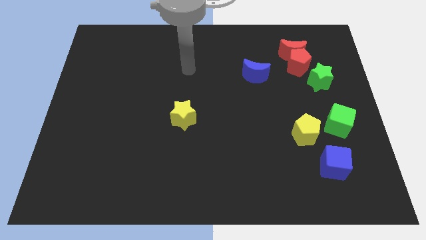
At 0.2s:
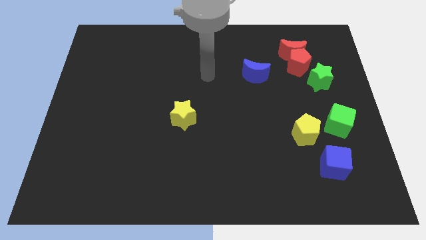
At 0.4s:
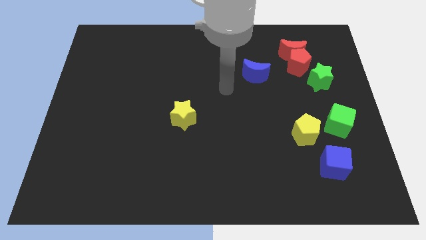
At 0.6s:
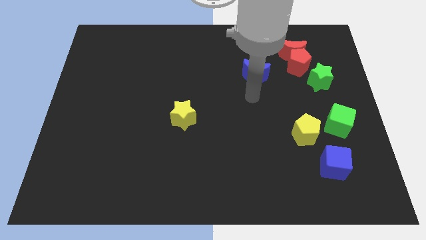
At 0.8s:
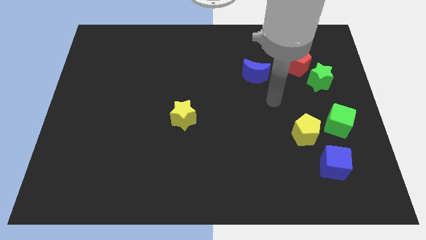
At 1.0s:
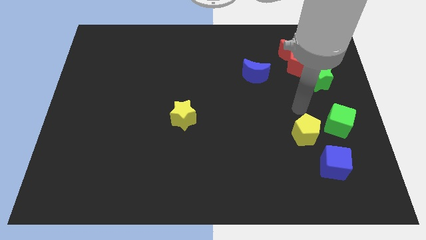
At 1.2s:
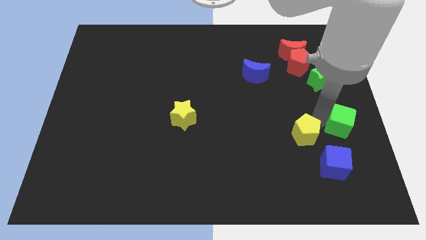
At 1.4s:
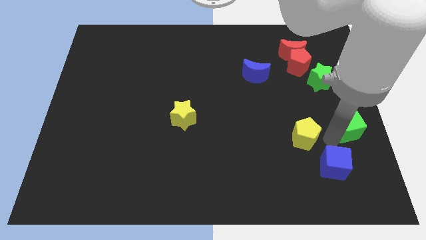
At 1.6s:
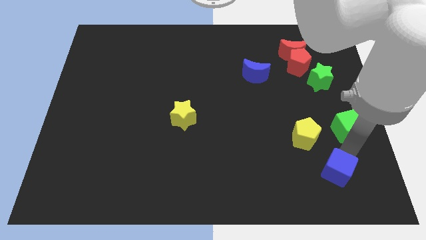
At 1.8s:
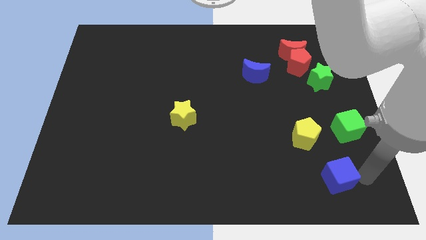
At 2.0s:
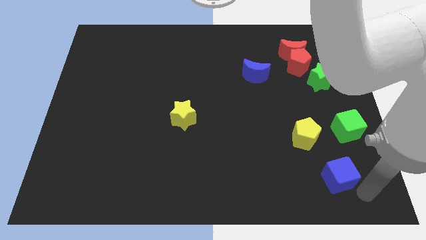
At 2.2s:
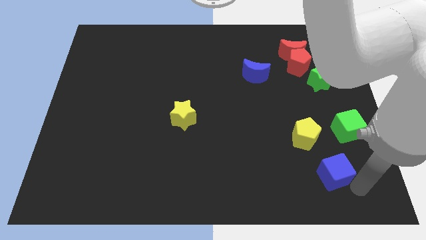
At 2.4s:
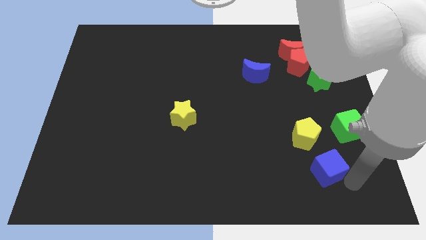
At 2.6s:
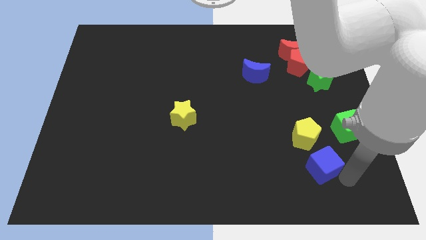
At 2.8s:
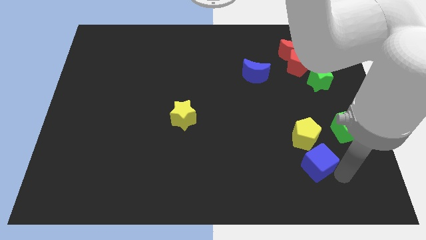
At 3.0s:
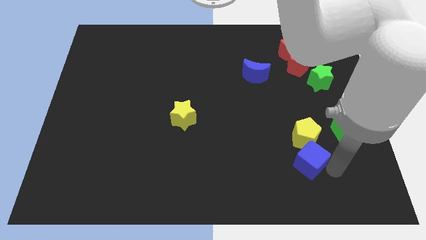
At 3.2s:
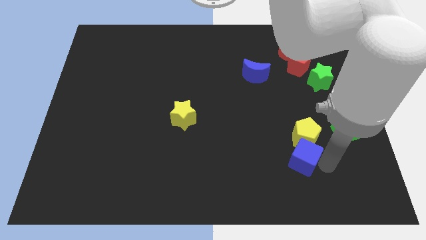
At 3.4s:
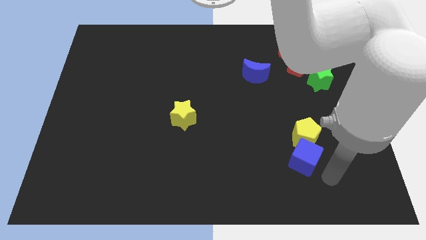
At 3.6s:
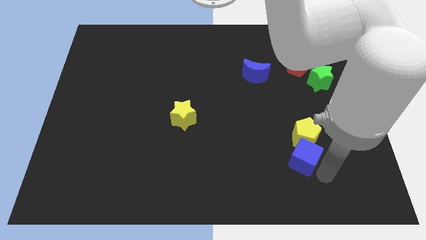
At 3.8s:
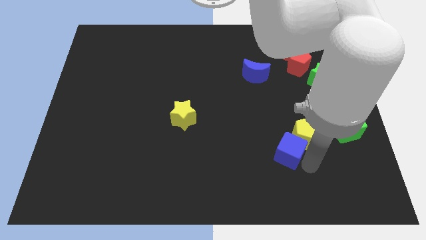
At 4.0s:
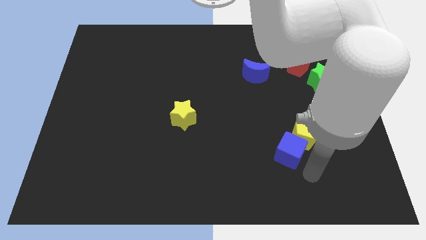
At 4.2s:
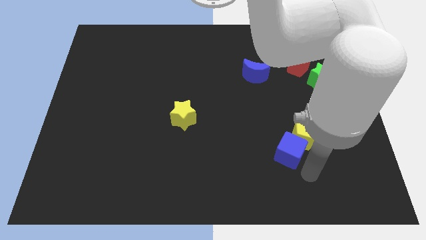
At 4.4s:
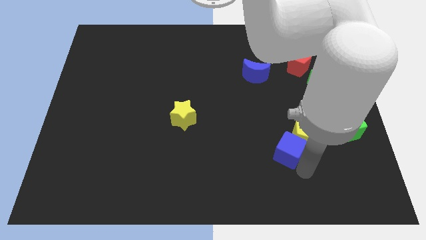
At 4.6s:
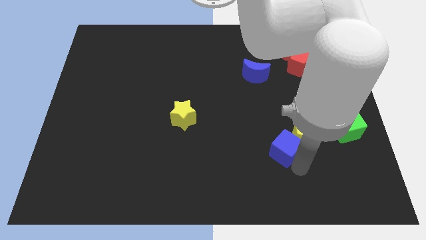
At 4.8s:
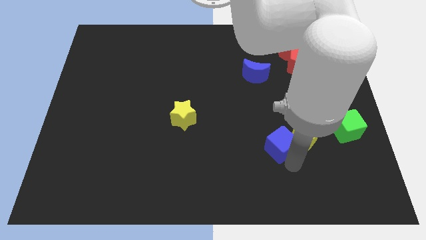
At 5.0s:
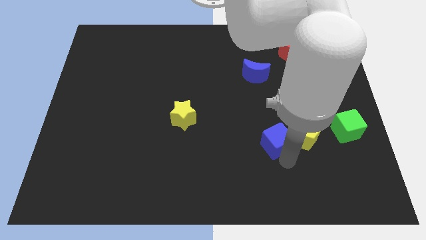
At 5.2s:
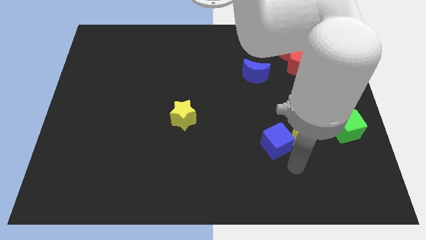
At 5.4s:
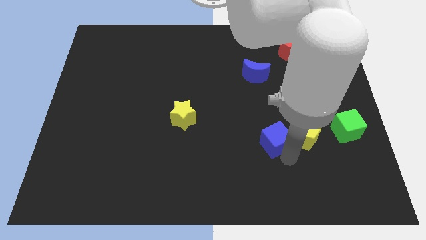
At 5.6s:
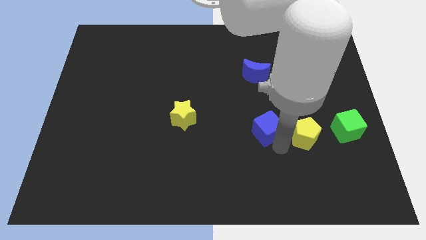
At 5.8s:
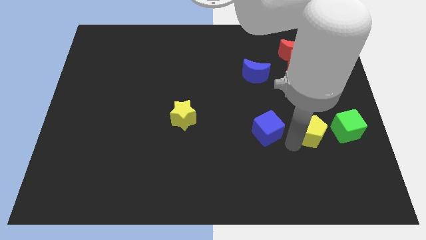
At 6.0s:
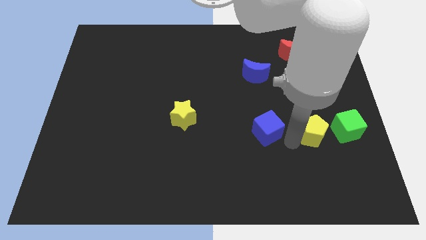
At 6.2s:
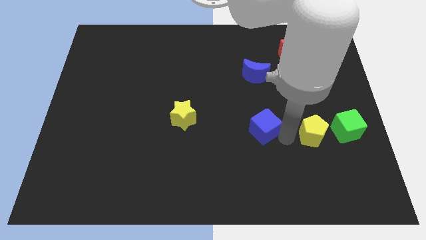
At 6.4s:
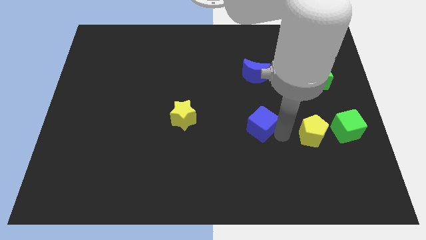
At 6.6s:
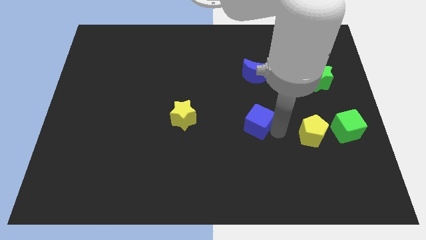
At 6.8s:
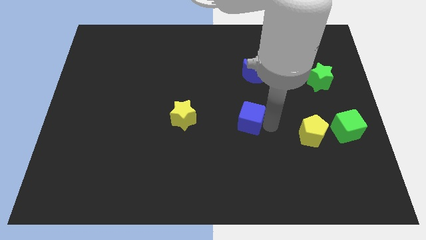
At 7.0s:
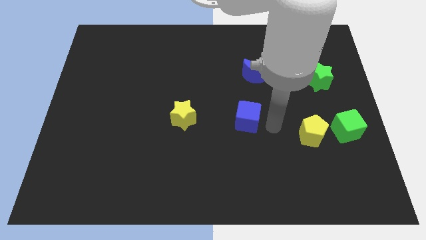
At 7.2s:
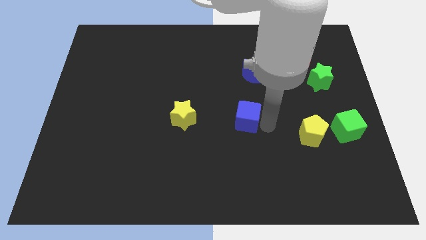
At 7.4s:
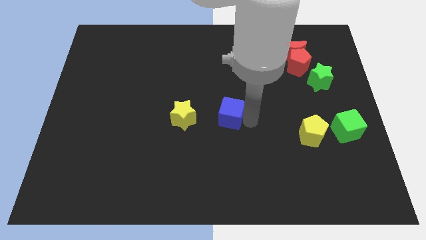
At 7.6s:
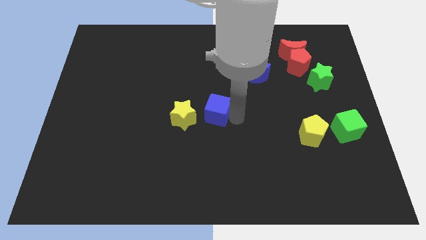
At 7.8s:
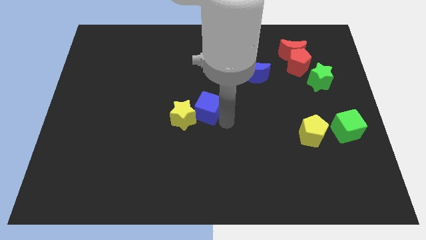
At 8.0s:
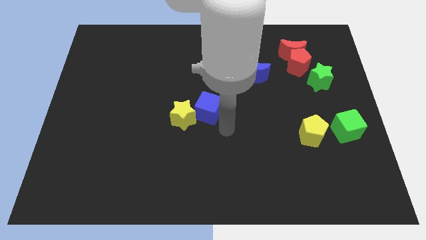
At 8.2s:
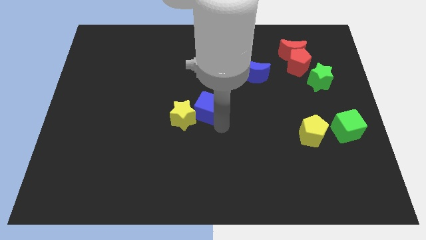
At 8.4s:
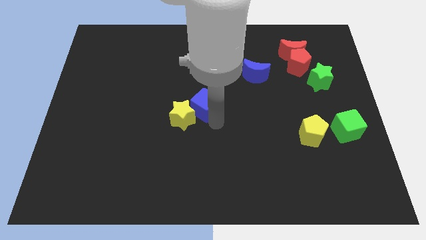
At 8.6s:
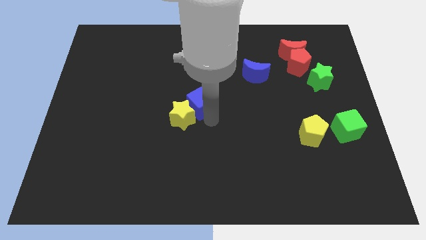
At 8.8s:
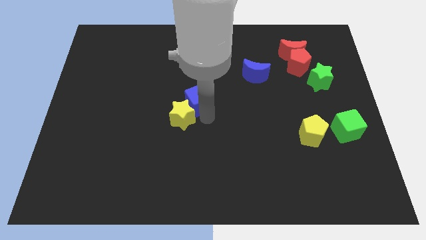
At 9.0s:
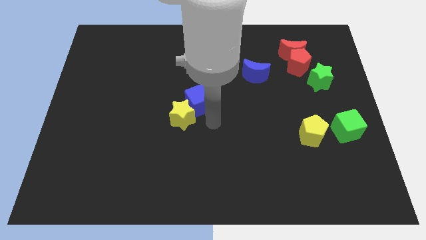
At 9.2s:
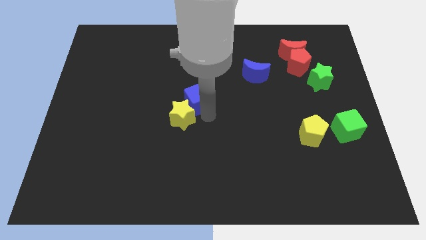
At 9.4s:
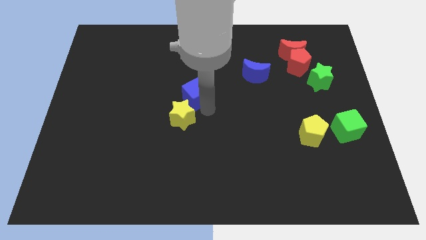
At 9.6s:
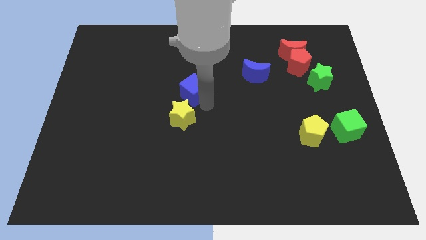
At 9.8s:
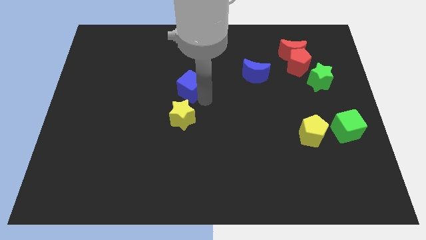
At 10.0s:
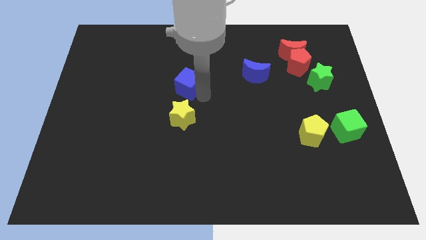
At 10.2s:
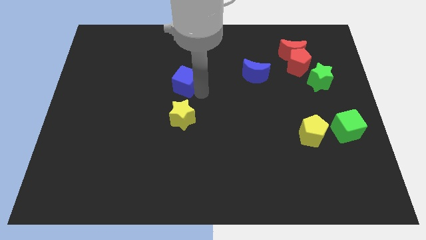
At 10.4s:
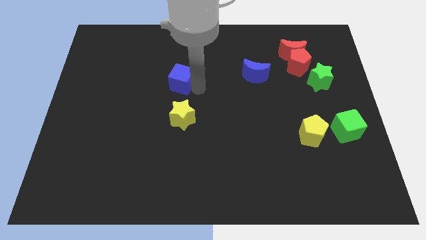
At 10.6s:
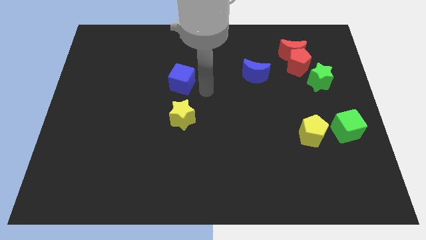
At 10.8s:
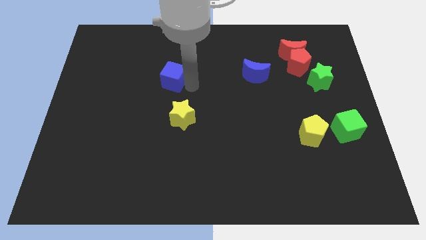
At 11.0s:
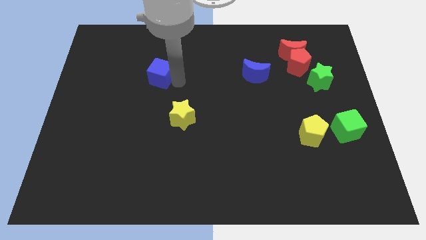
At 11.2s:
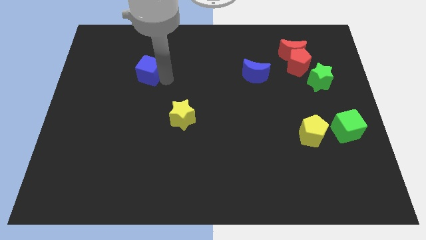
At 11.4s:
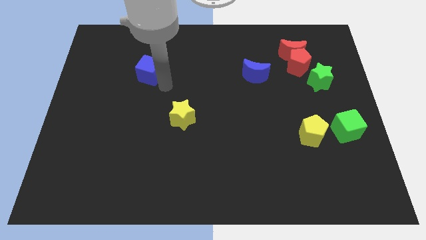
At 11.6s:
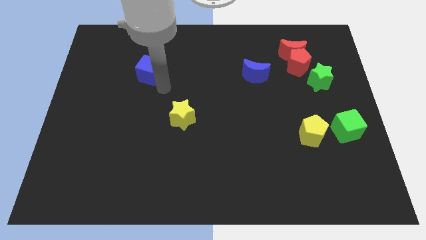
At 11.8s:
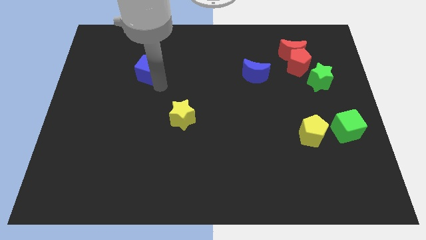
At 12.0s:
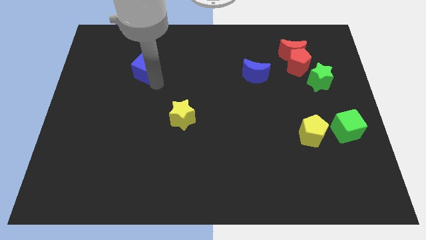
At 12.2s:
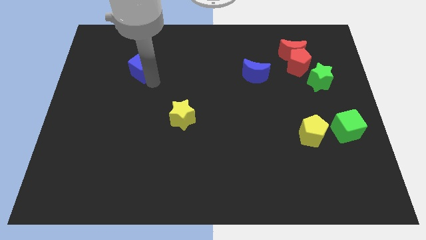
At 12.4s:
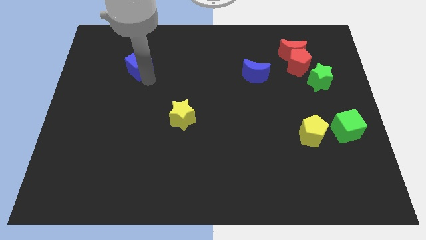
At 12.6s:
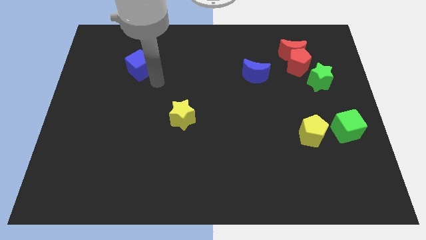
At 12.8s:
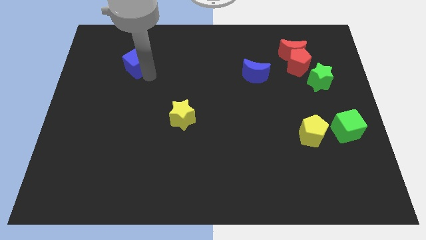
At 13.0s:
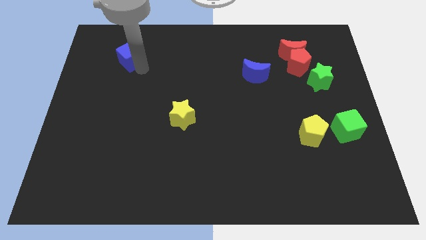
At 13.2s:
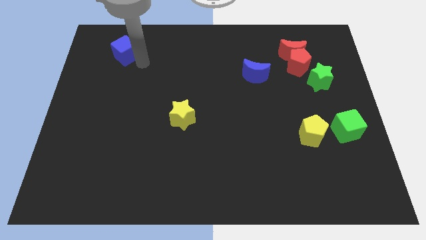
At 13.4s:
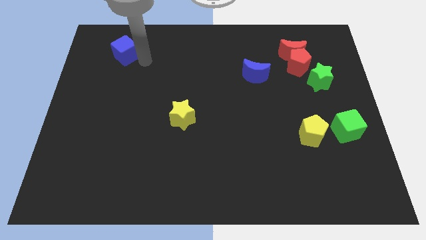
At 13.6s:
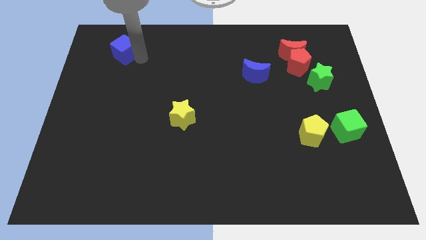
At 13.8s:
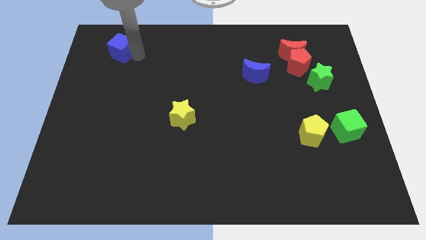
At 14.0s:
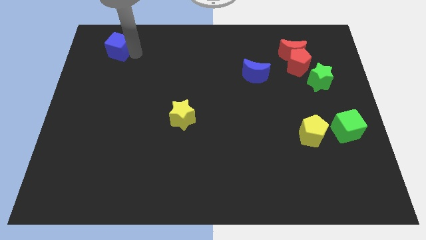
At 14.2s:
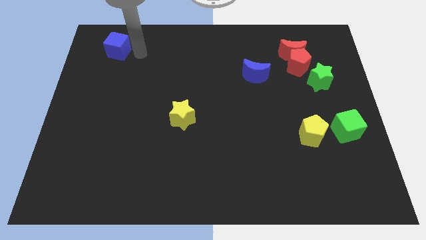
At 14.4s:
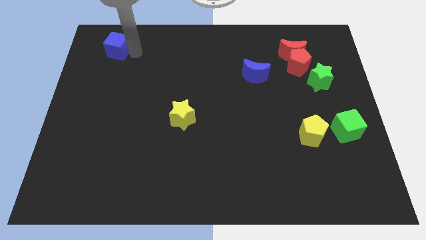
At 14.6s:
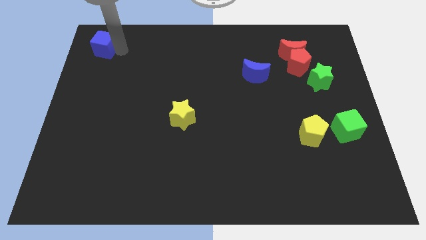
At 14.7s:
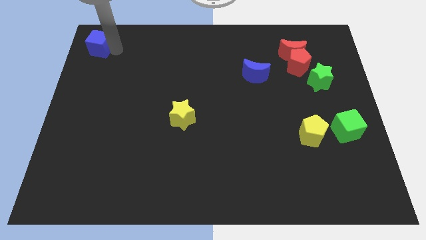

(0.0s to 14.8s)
put the blue cube to the top left of the board
